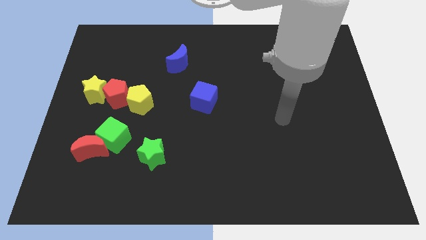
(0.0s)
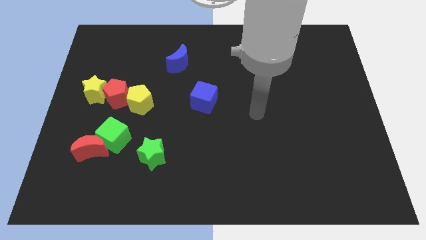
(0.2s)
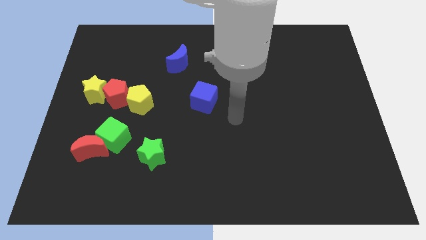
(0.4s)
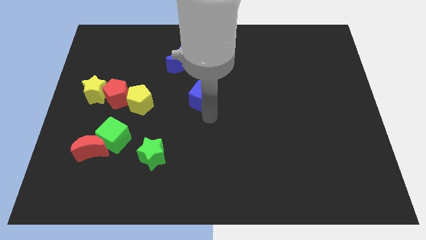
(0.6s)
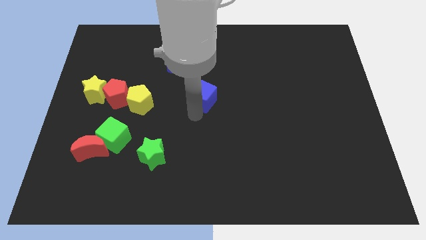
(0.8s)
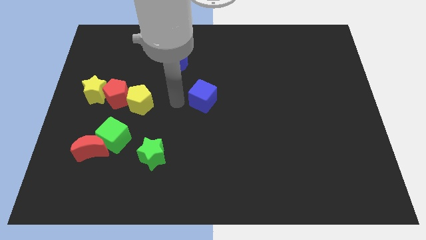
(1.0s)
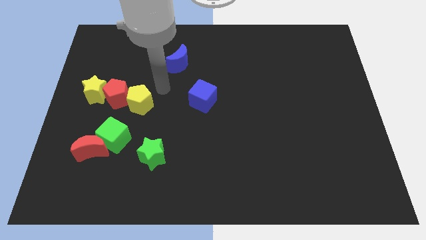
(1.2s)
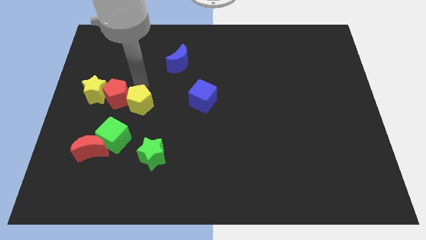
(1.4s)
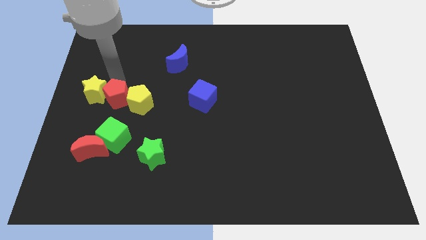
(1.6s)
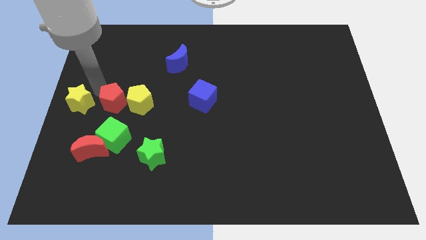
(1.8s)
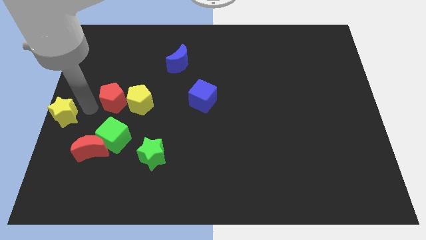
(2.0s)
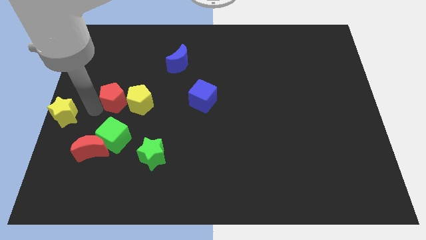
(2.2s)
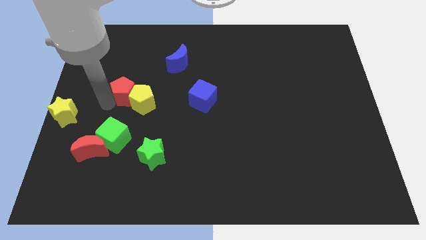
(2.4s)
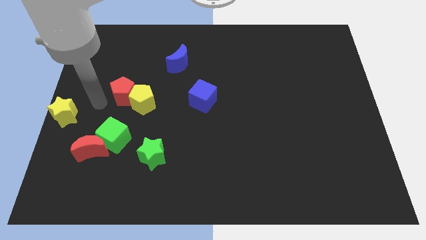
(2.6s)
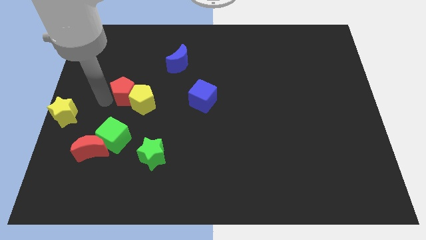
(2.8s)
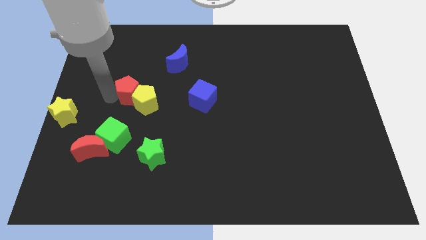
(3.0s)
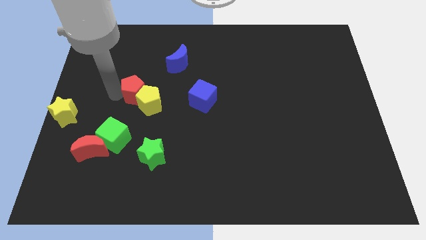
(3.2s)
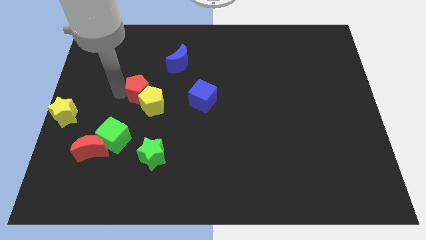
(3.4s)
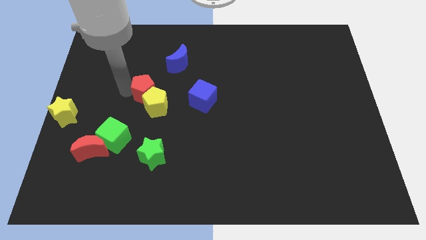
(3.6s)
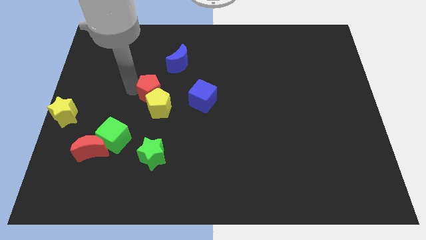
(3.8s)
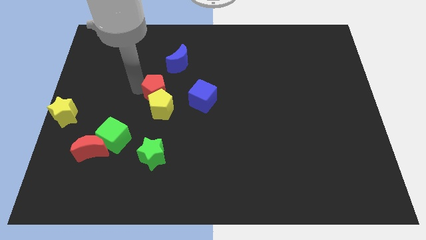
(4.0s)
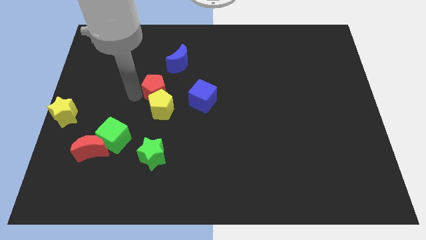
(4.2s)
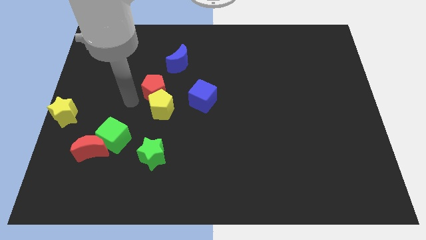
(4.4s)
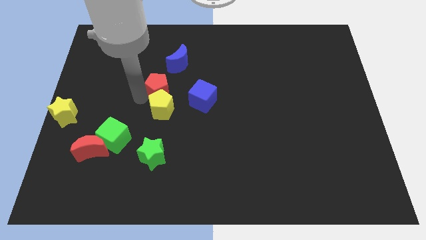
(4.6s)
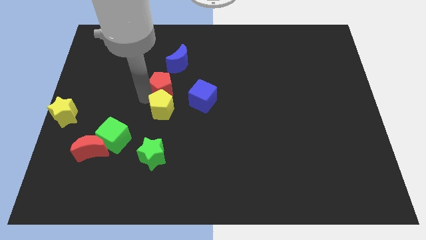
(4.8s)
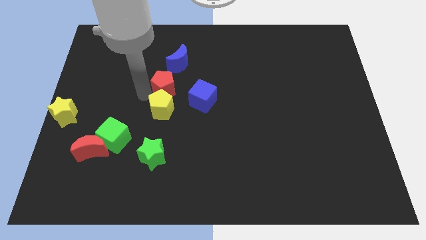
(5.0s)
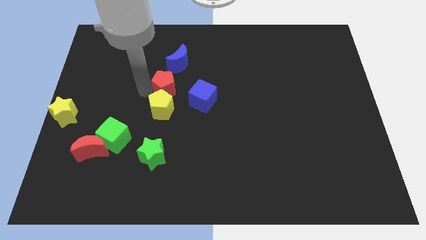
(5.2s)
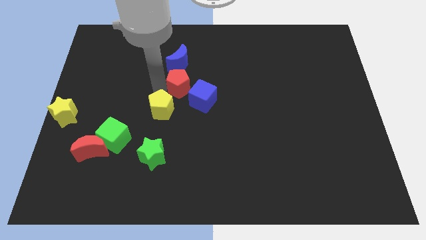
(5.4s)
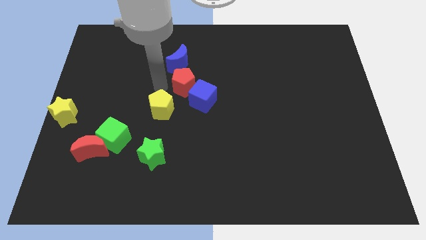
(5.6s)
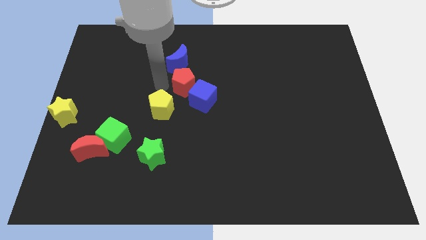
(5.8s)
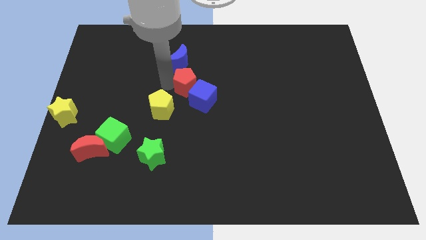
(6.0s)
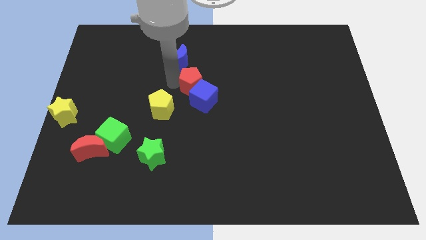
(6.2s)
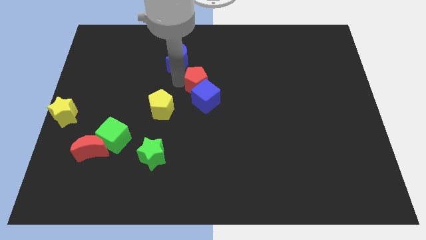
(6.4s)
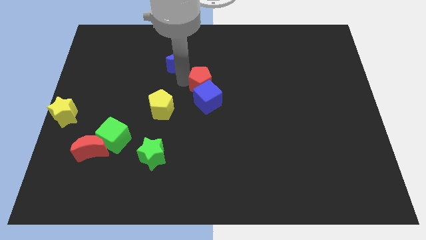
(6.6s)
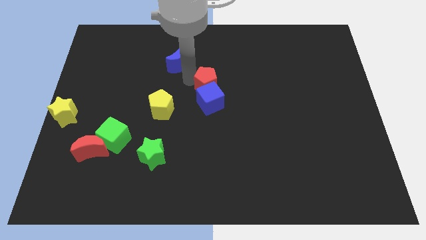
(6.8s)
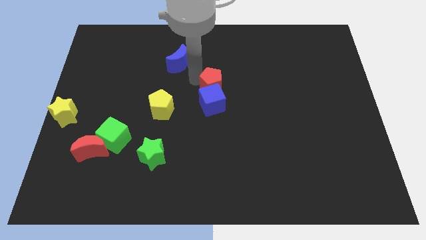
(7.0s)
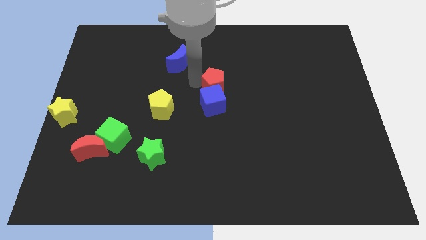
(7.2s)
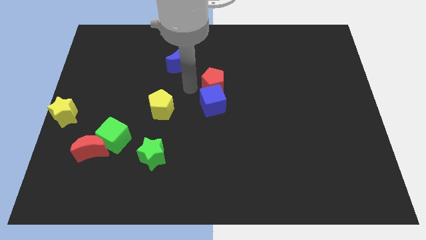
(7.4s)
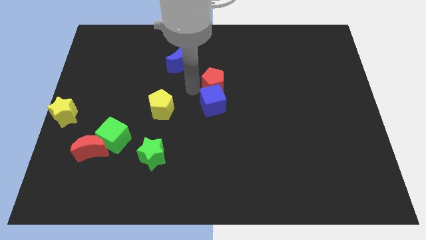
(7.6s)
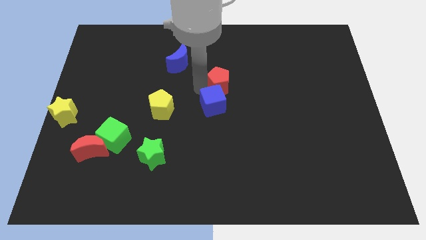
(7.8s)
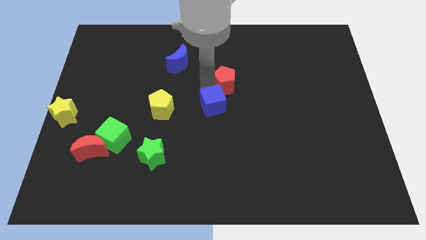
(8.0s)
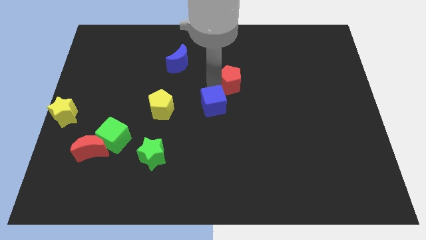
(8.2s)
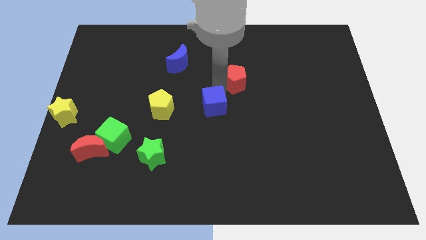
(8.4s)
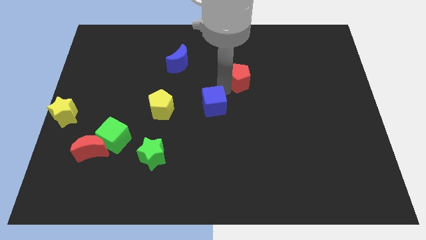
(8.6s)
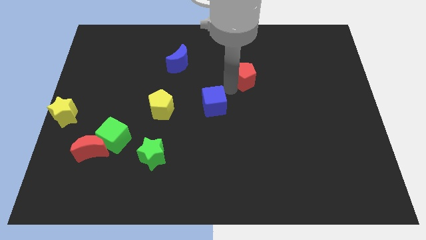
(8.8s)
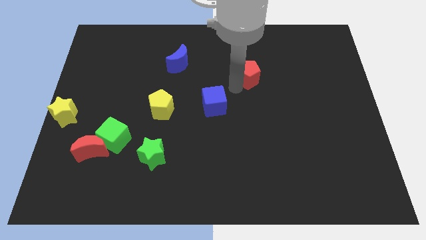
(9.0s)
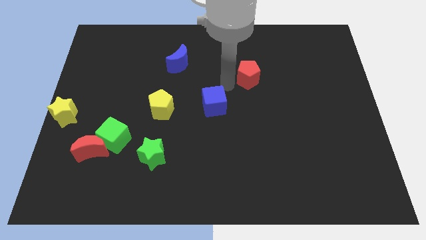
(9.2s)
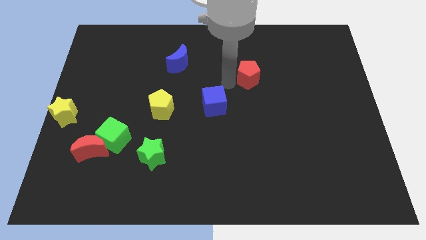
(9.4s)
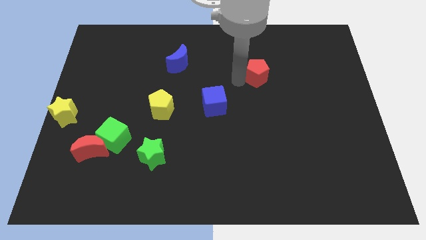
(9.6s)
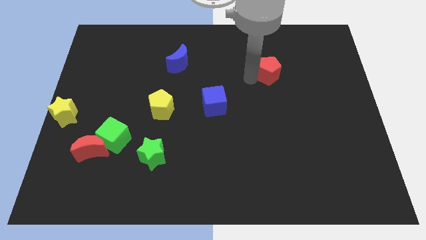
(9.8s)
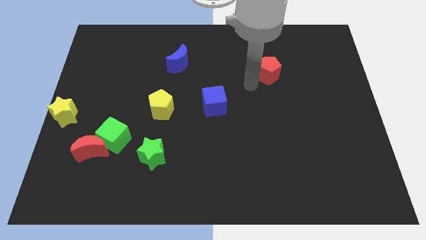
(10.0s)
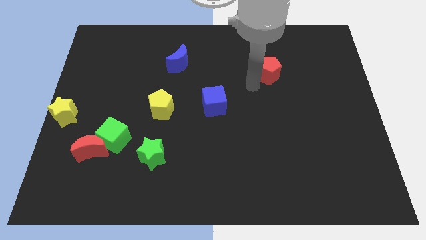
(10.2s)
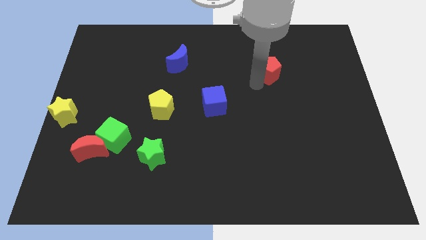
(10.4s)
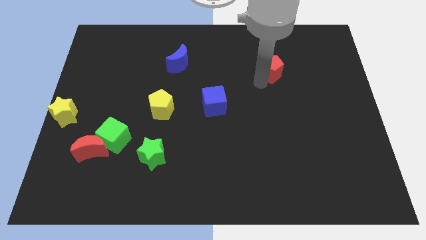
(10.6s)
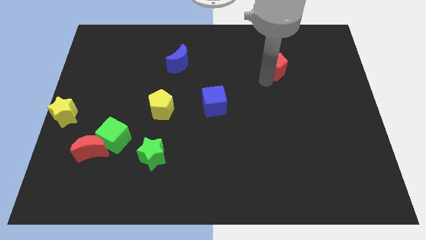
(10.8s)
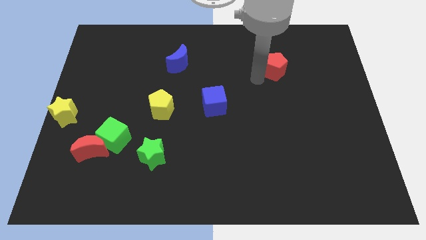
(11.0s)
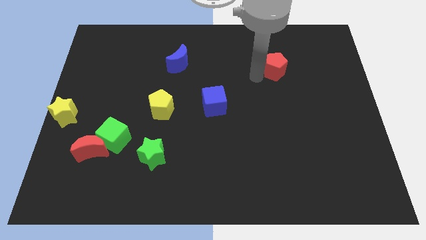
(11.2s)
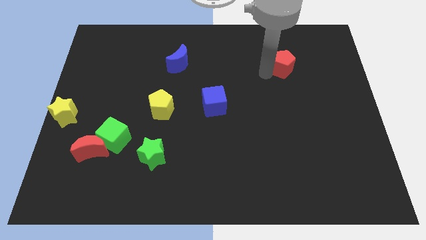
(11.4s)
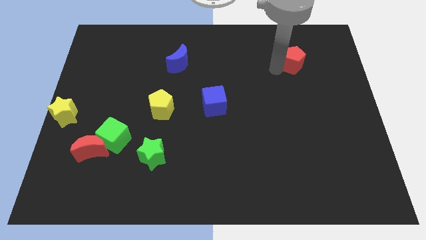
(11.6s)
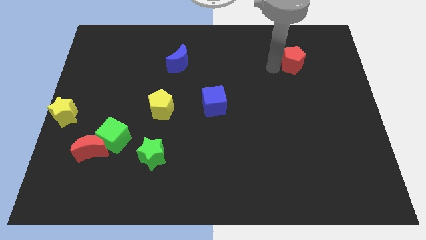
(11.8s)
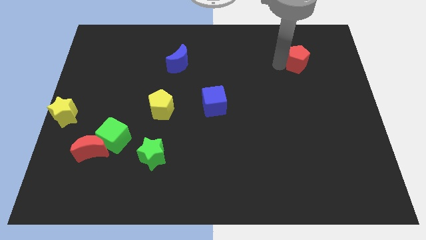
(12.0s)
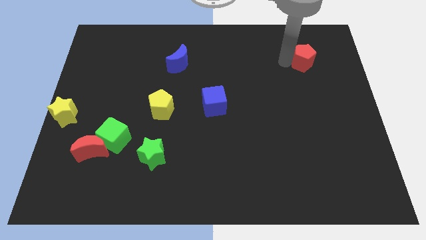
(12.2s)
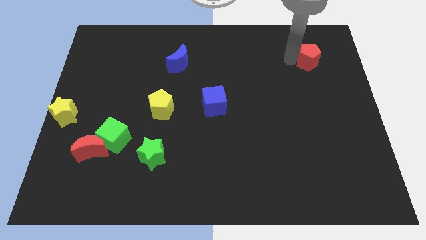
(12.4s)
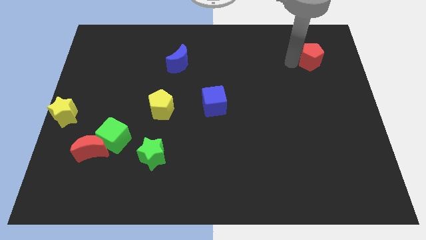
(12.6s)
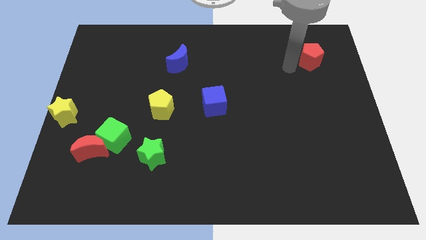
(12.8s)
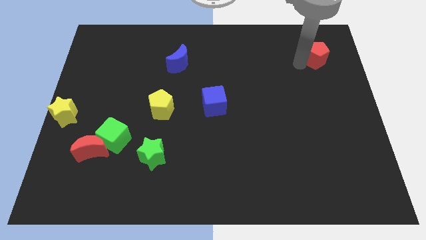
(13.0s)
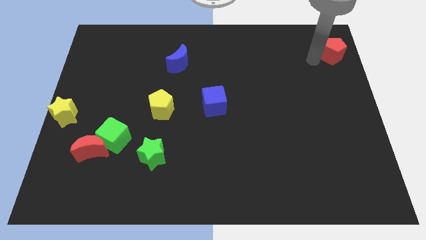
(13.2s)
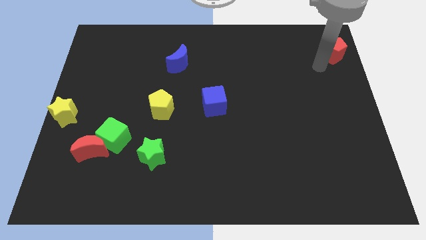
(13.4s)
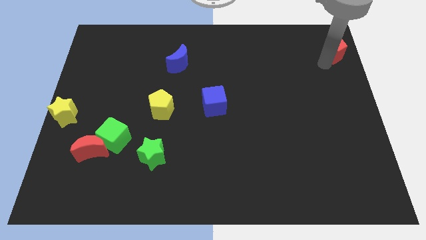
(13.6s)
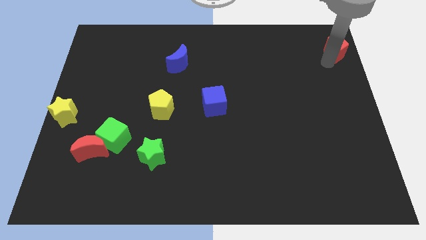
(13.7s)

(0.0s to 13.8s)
move the red pentagon to the top right of the board
